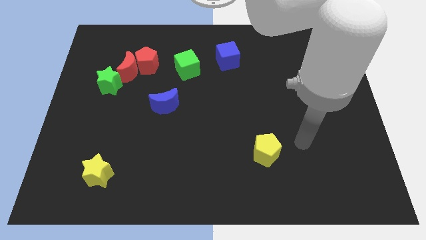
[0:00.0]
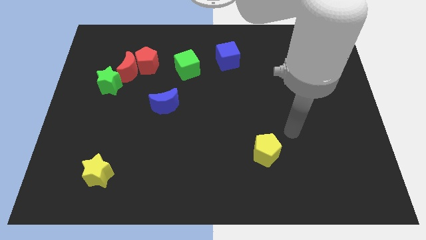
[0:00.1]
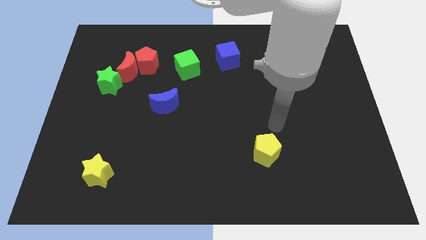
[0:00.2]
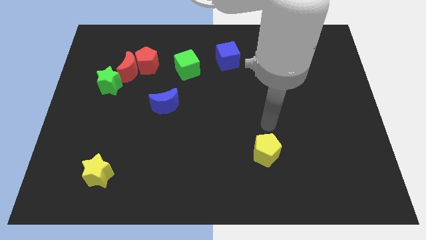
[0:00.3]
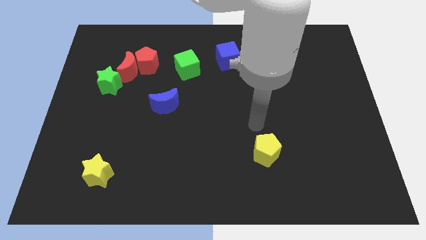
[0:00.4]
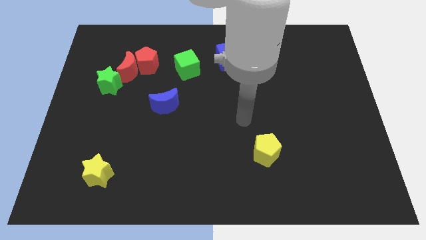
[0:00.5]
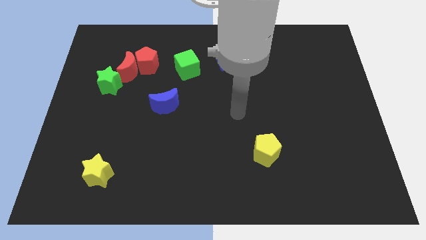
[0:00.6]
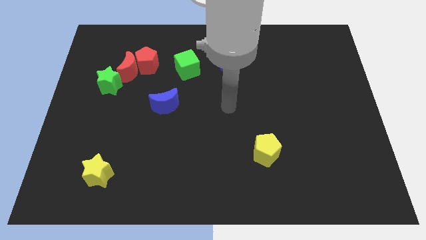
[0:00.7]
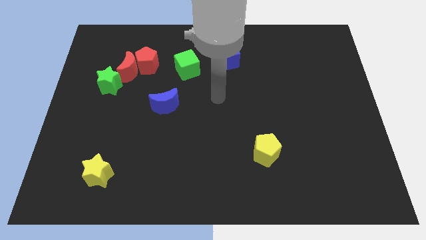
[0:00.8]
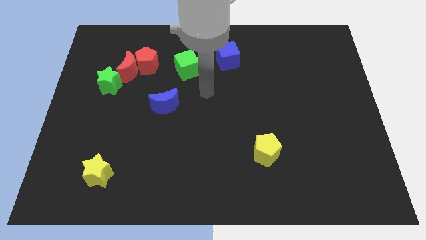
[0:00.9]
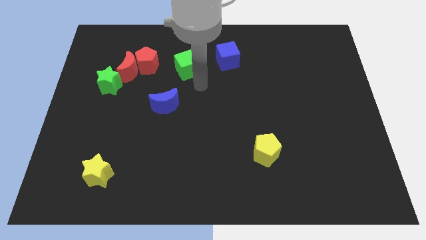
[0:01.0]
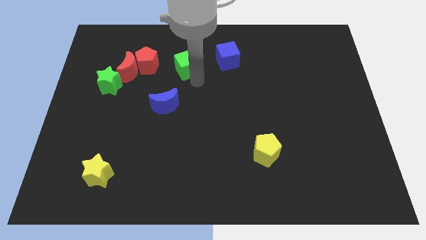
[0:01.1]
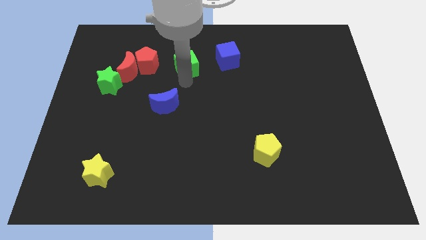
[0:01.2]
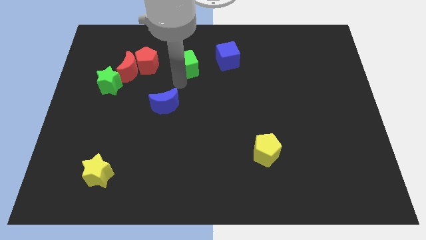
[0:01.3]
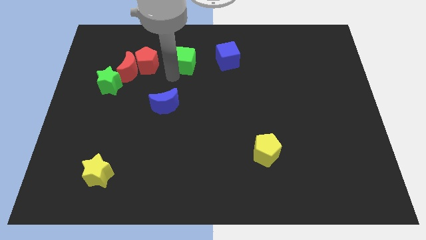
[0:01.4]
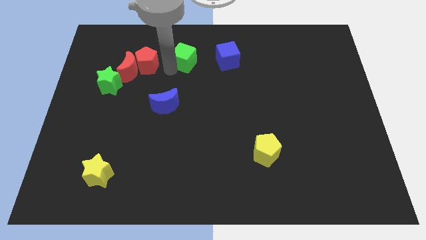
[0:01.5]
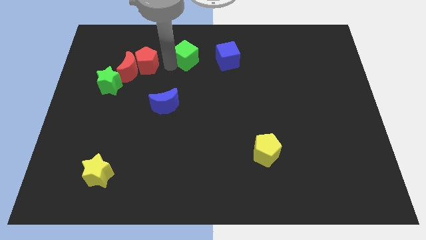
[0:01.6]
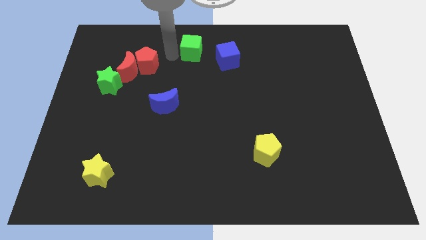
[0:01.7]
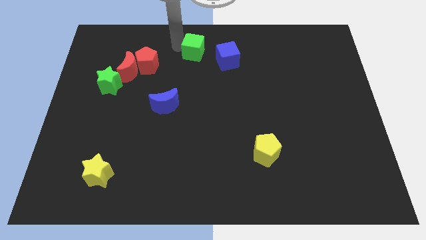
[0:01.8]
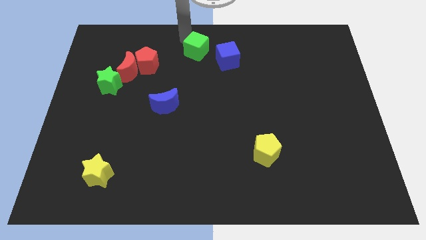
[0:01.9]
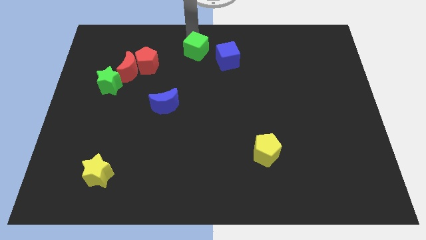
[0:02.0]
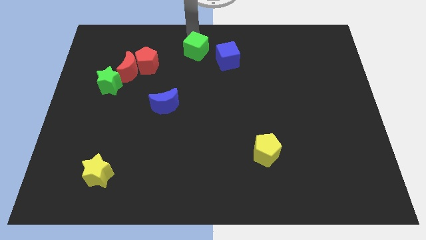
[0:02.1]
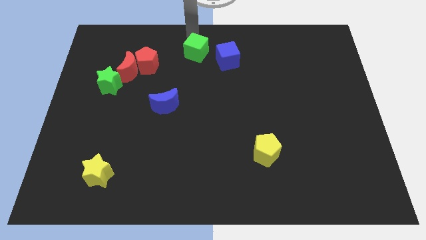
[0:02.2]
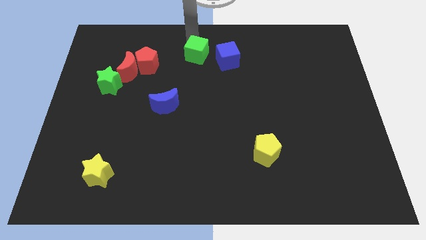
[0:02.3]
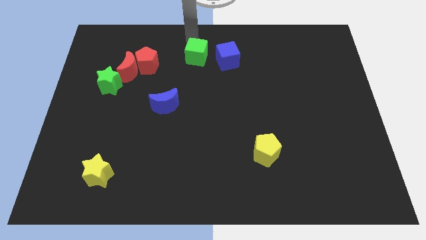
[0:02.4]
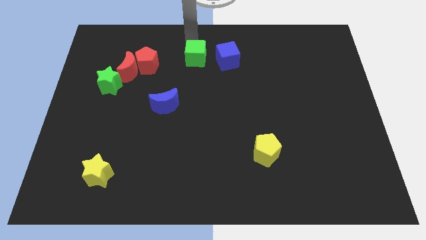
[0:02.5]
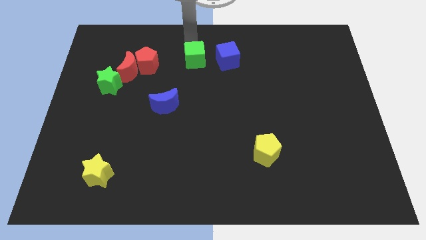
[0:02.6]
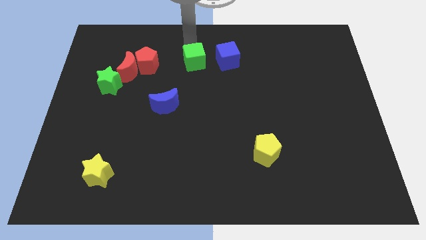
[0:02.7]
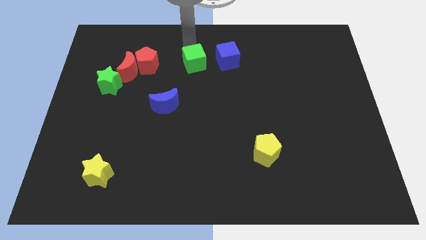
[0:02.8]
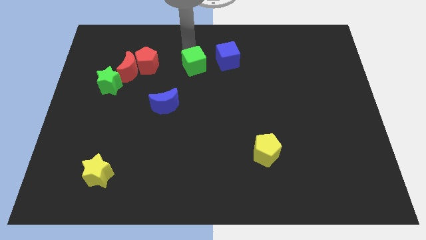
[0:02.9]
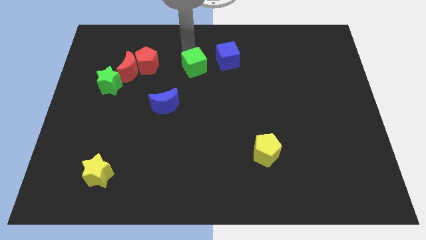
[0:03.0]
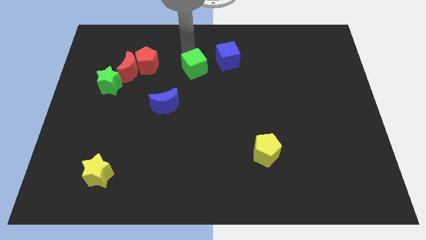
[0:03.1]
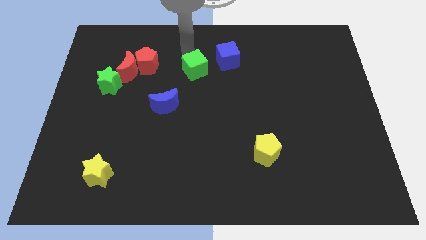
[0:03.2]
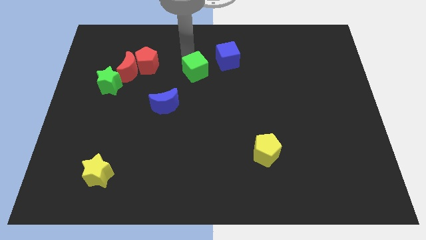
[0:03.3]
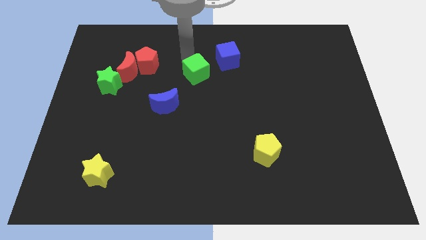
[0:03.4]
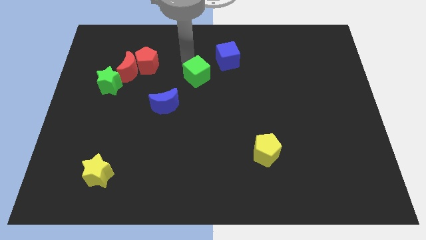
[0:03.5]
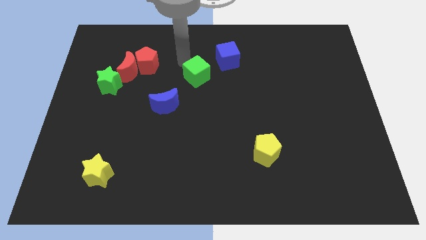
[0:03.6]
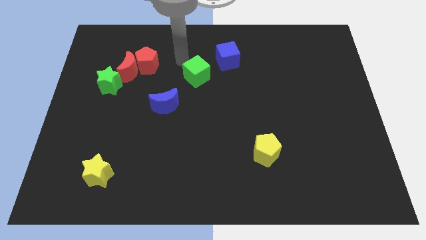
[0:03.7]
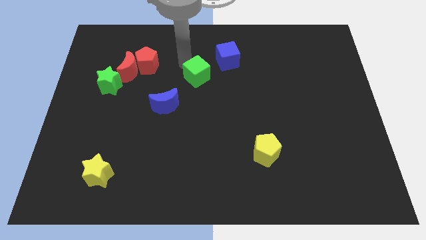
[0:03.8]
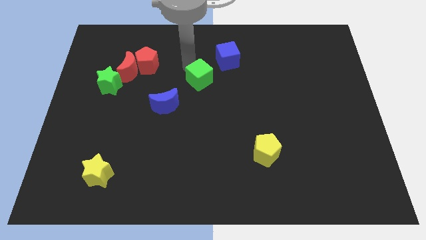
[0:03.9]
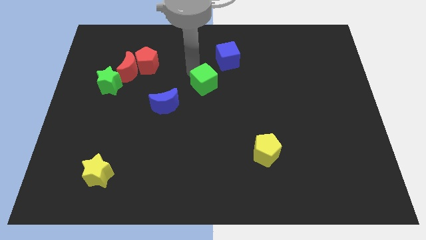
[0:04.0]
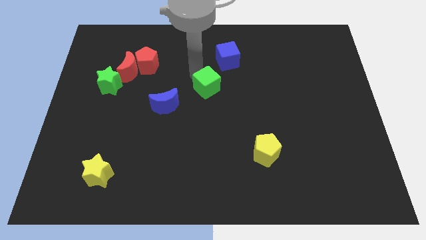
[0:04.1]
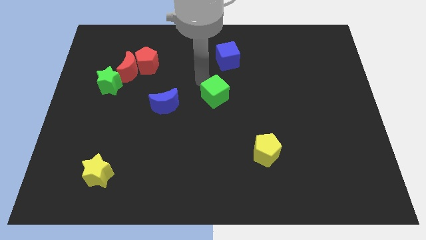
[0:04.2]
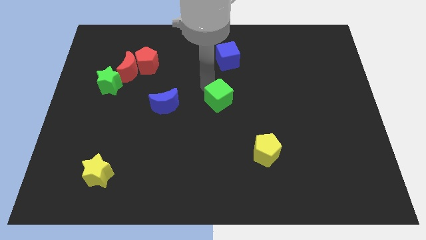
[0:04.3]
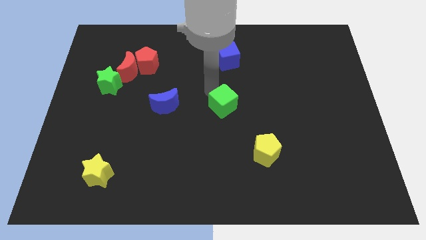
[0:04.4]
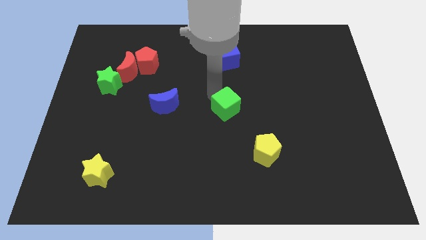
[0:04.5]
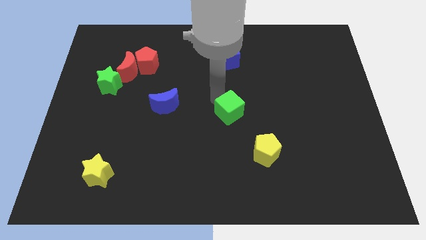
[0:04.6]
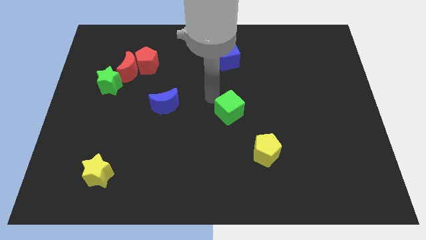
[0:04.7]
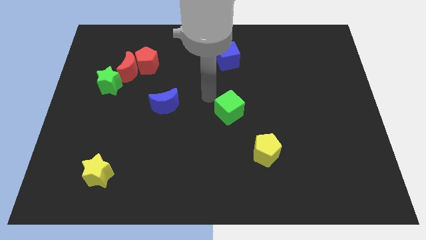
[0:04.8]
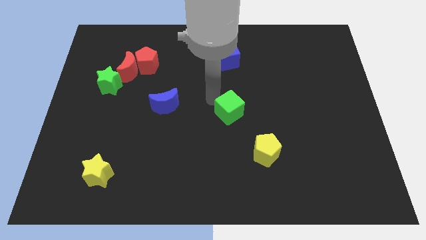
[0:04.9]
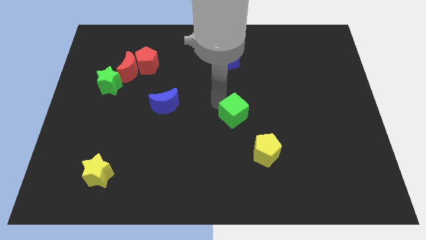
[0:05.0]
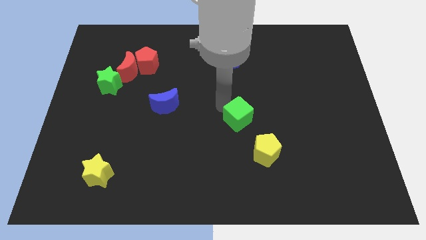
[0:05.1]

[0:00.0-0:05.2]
slide the green cube diagonally down and to the right

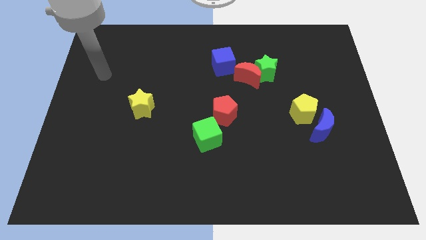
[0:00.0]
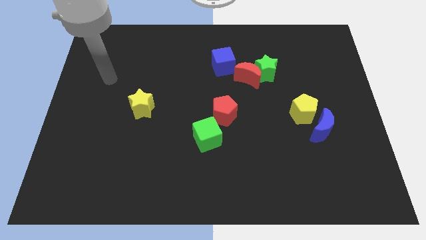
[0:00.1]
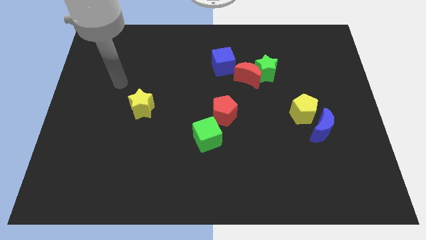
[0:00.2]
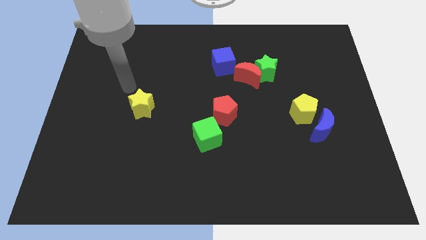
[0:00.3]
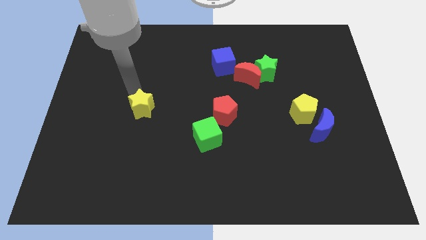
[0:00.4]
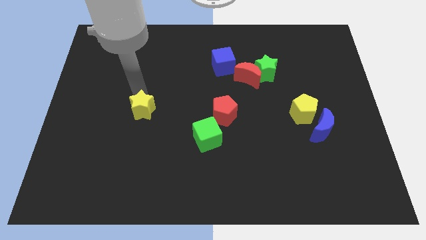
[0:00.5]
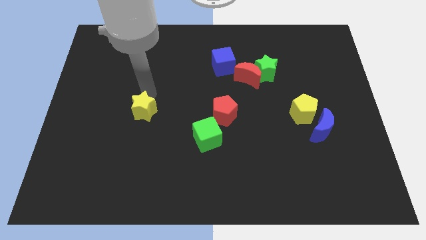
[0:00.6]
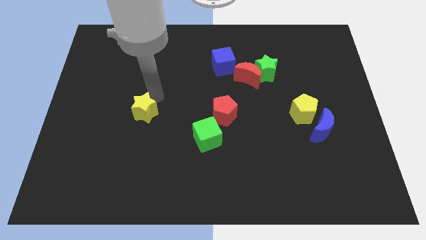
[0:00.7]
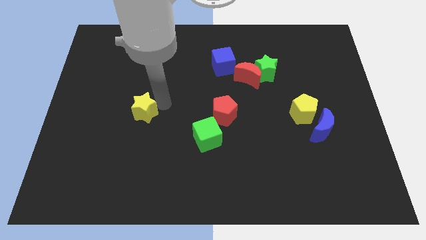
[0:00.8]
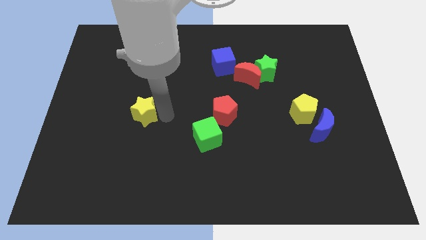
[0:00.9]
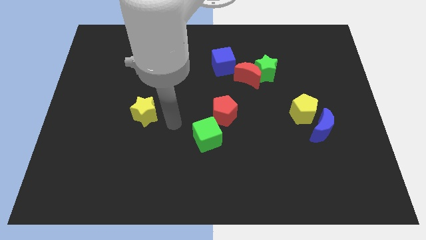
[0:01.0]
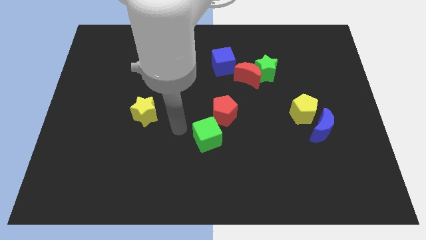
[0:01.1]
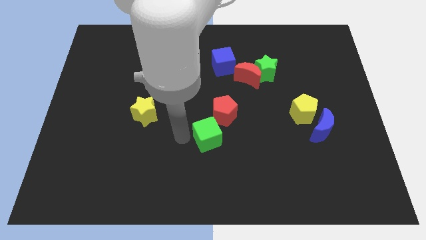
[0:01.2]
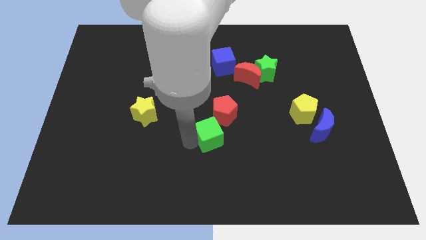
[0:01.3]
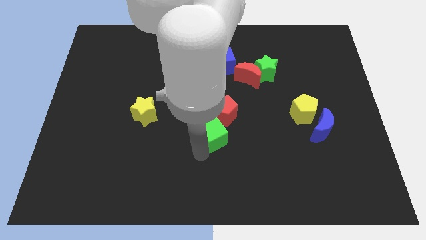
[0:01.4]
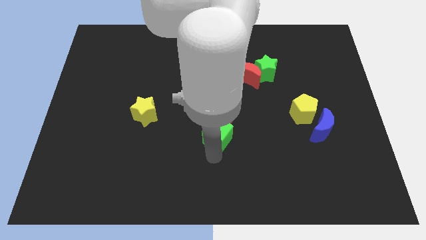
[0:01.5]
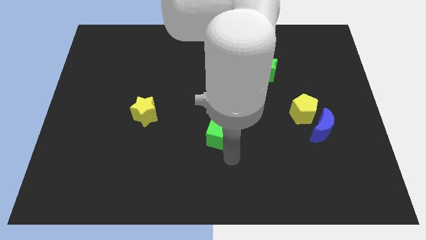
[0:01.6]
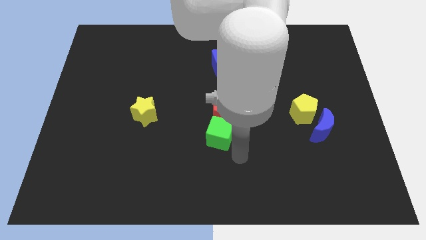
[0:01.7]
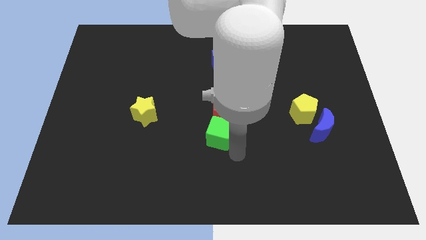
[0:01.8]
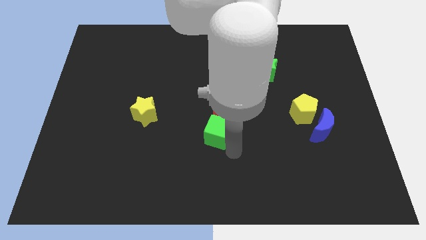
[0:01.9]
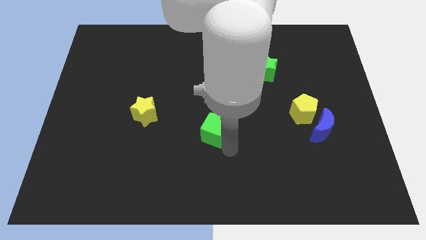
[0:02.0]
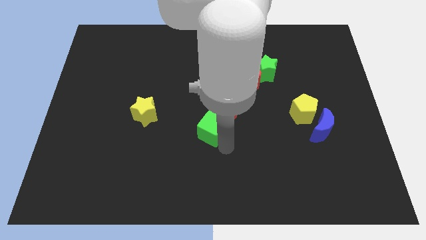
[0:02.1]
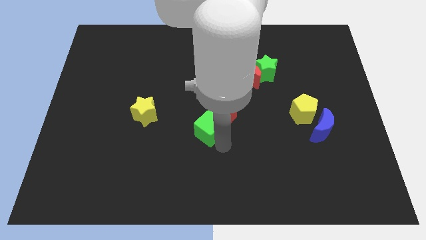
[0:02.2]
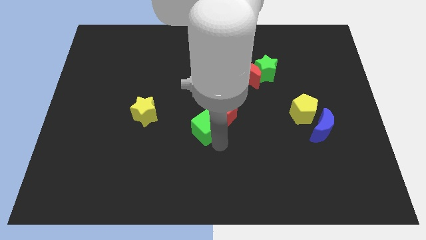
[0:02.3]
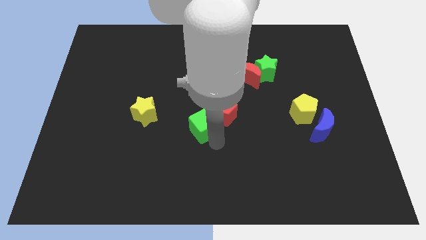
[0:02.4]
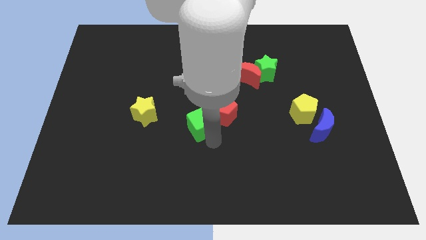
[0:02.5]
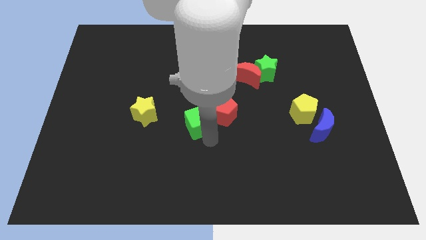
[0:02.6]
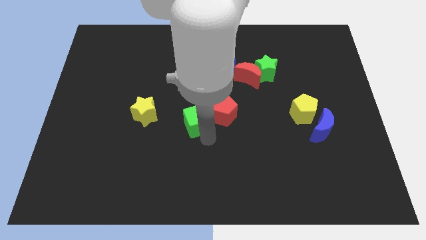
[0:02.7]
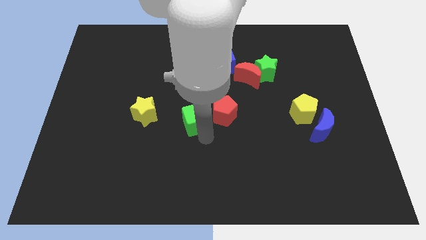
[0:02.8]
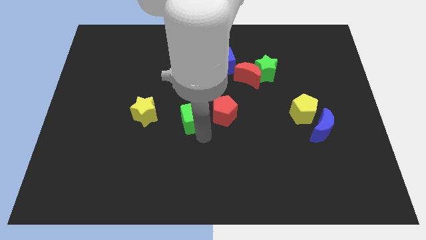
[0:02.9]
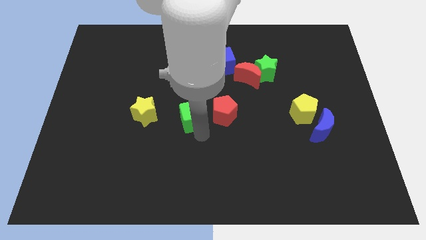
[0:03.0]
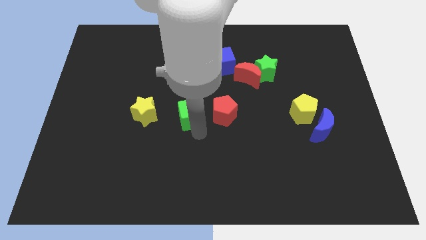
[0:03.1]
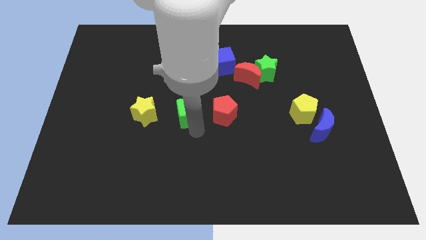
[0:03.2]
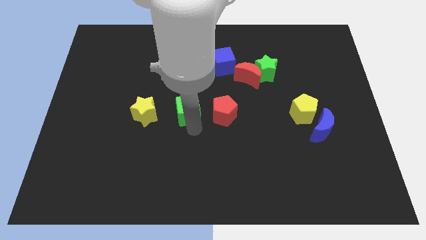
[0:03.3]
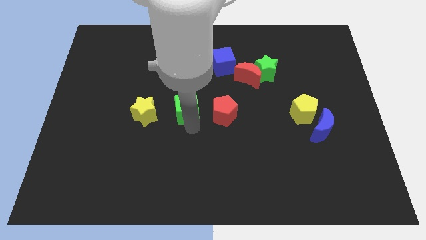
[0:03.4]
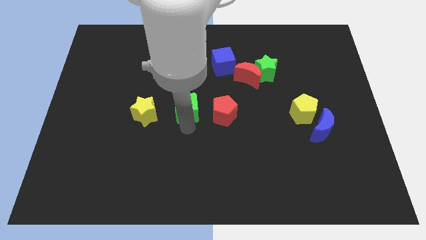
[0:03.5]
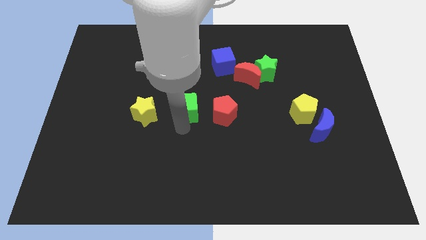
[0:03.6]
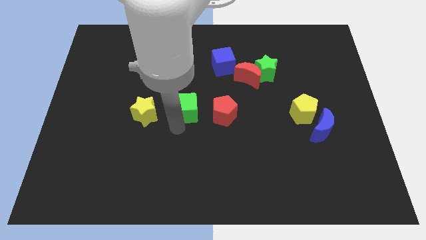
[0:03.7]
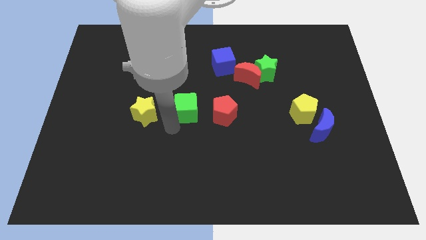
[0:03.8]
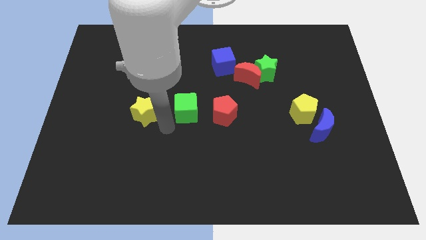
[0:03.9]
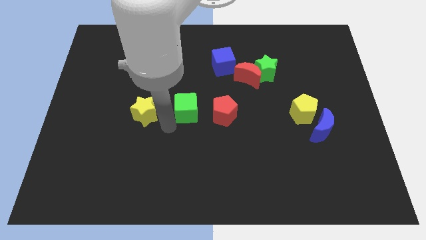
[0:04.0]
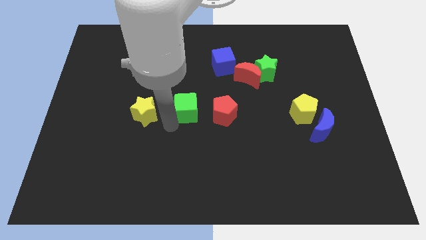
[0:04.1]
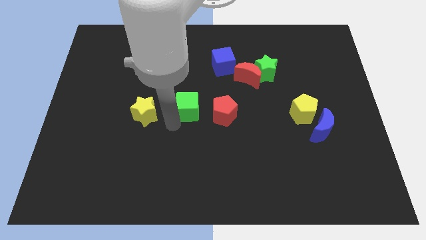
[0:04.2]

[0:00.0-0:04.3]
slide the green cube a bit upwards
